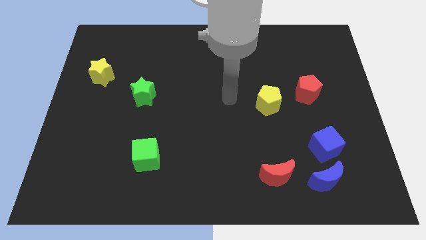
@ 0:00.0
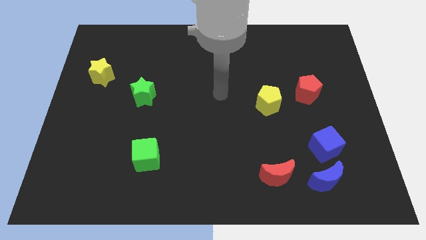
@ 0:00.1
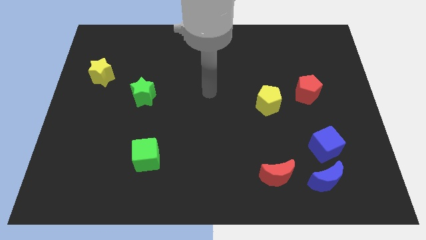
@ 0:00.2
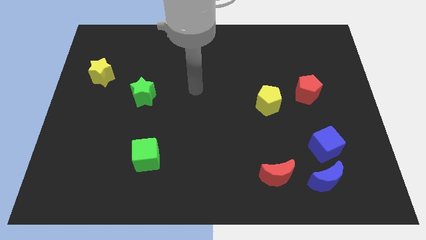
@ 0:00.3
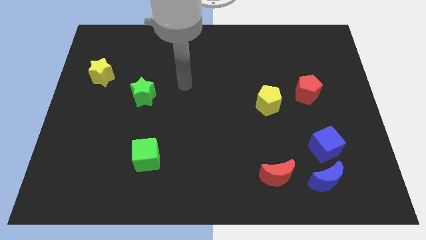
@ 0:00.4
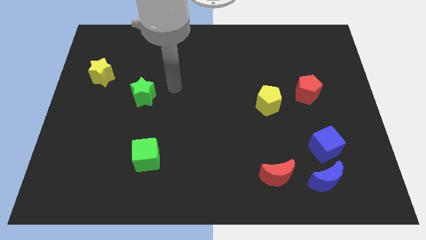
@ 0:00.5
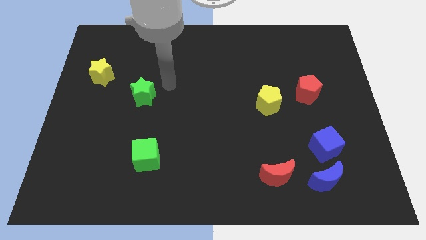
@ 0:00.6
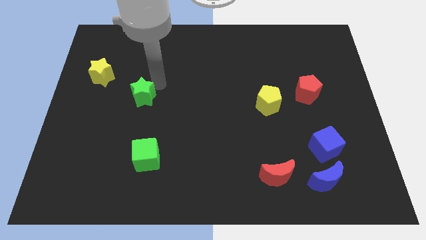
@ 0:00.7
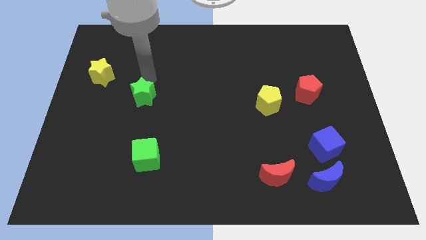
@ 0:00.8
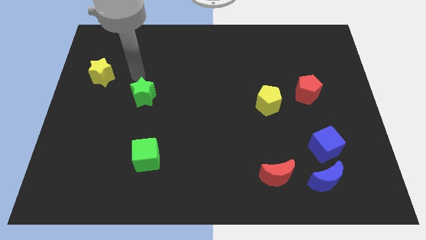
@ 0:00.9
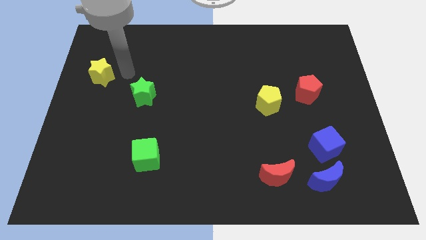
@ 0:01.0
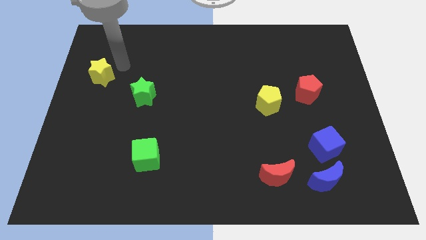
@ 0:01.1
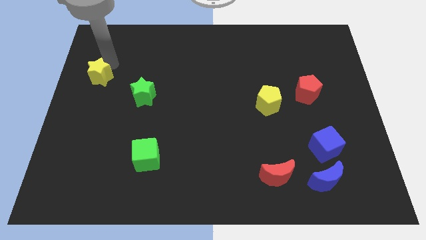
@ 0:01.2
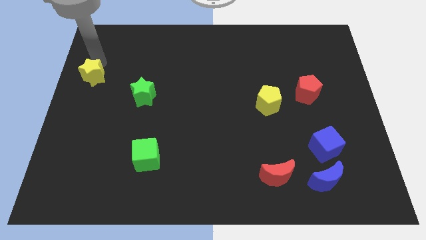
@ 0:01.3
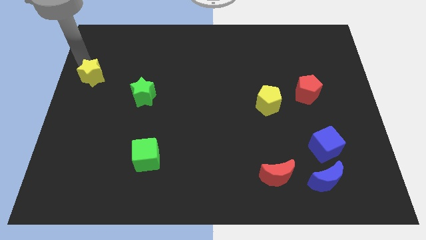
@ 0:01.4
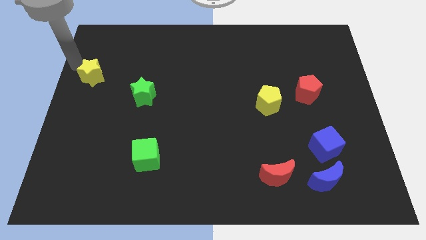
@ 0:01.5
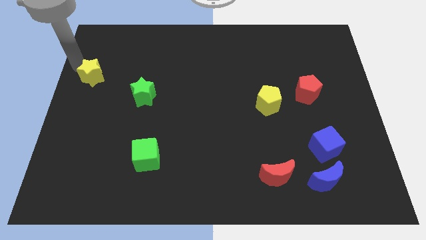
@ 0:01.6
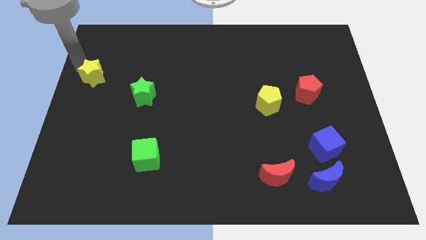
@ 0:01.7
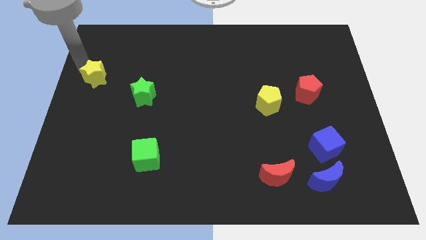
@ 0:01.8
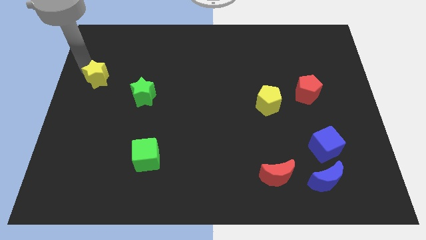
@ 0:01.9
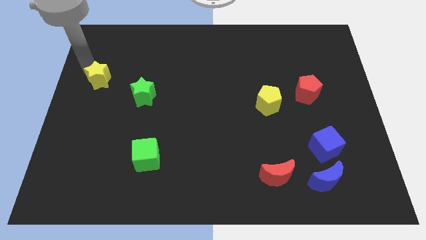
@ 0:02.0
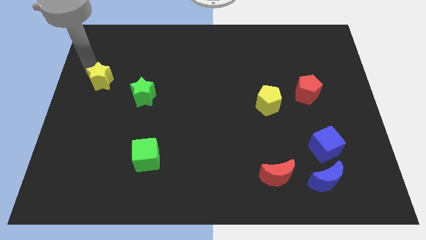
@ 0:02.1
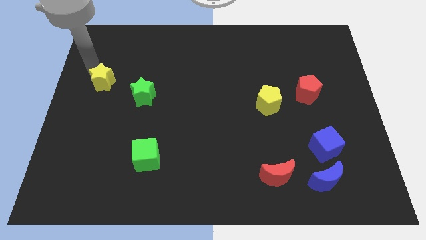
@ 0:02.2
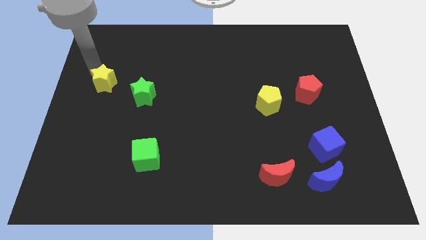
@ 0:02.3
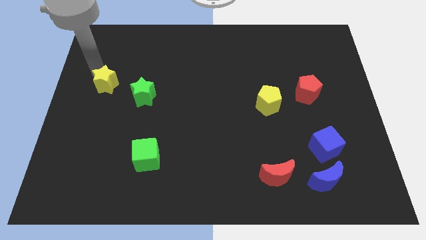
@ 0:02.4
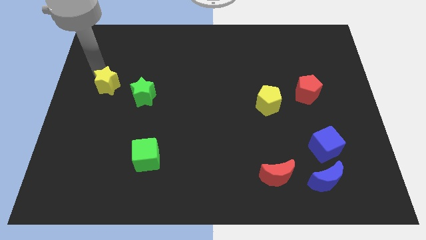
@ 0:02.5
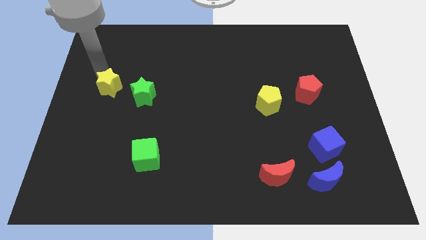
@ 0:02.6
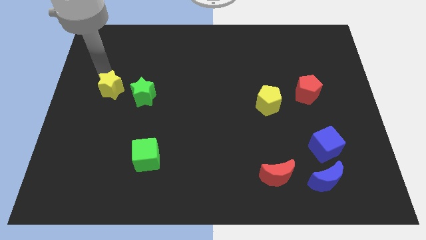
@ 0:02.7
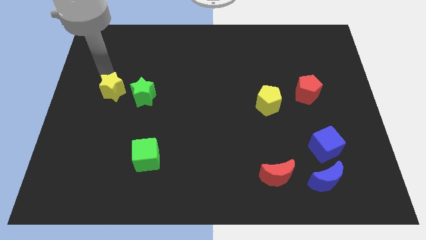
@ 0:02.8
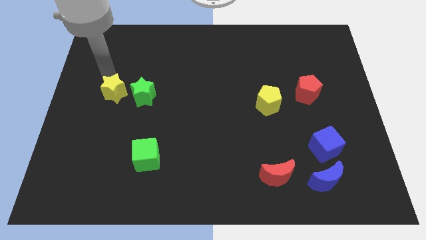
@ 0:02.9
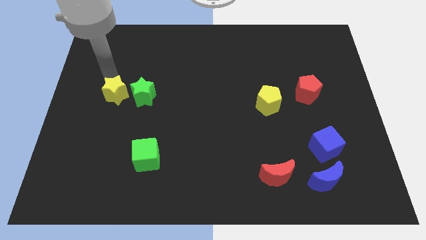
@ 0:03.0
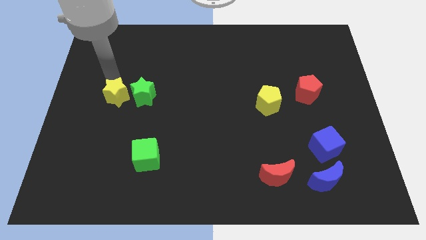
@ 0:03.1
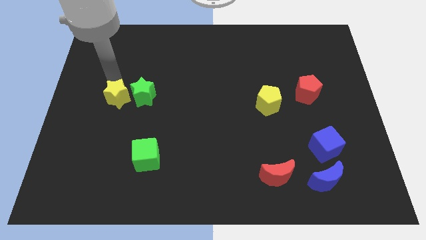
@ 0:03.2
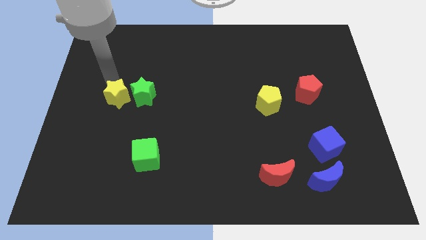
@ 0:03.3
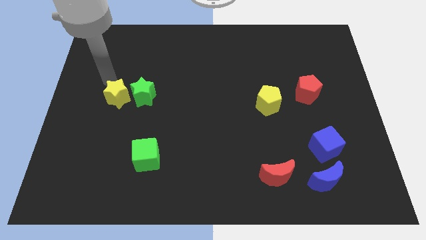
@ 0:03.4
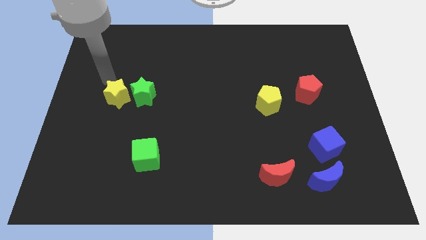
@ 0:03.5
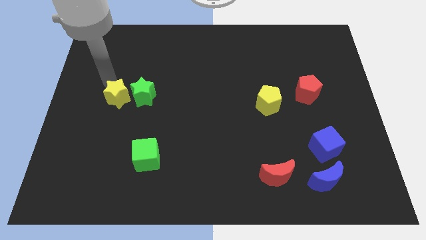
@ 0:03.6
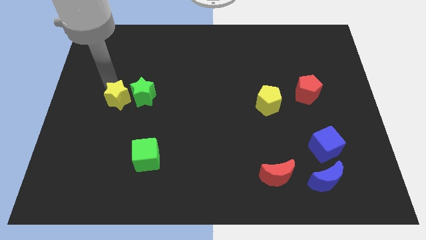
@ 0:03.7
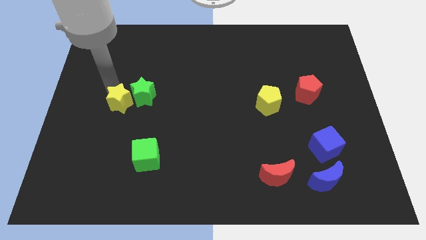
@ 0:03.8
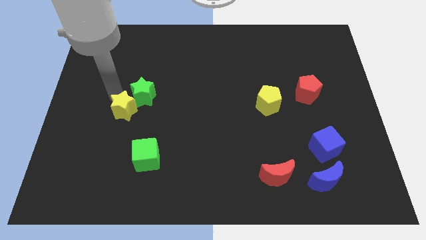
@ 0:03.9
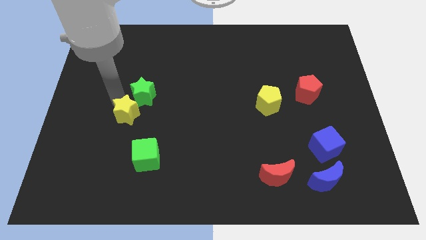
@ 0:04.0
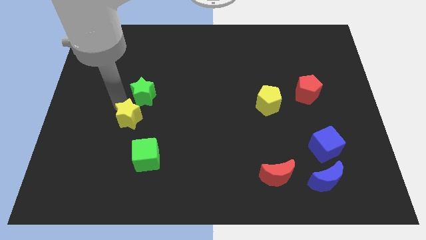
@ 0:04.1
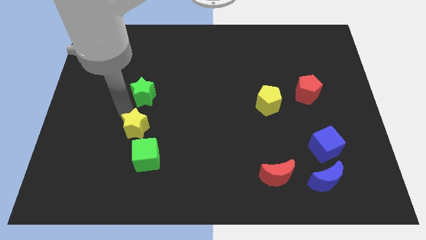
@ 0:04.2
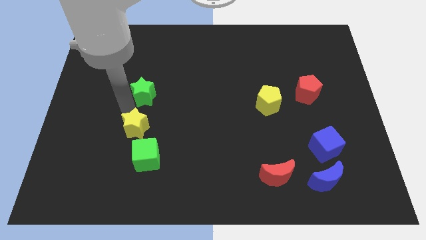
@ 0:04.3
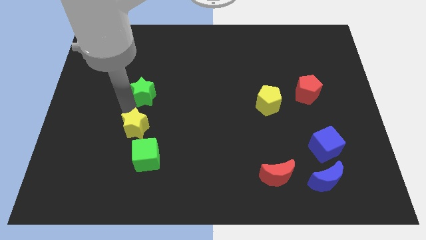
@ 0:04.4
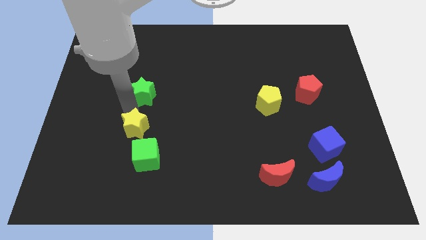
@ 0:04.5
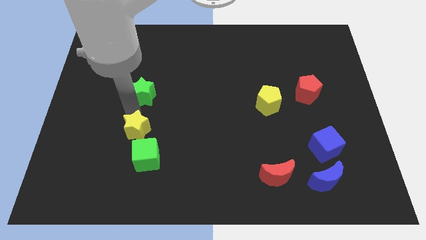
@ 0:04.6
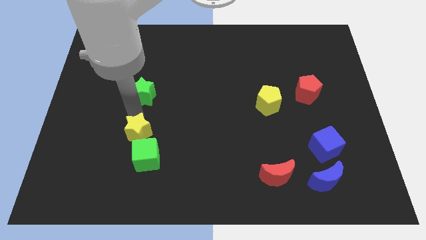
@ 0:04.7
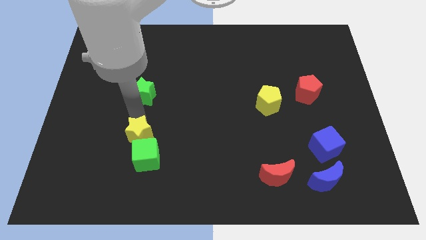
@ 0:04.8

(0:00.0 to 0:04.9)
put the yellow star towards the green cube

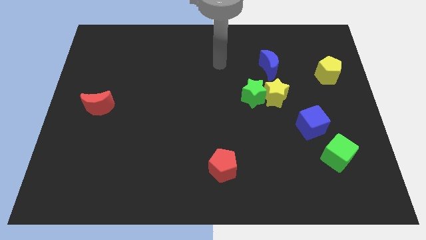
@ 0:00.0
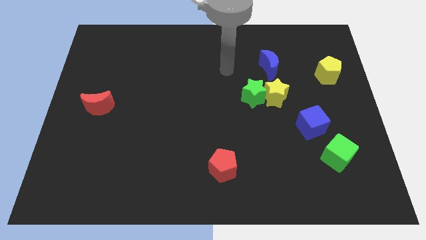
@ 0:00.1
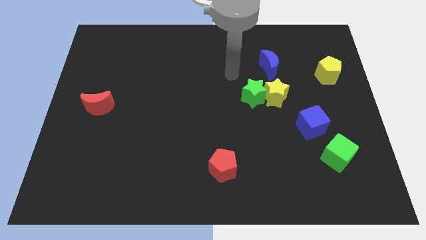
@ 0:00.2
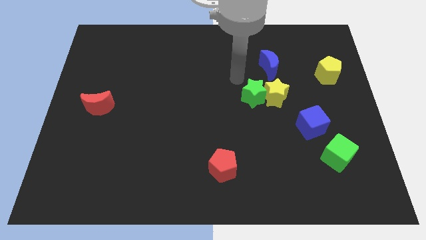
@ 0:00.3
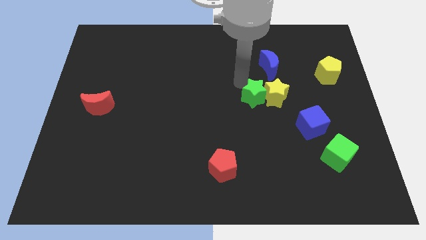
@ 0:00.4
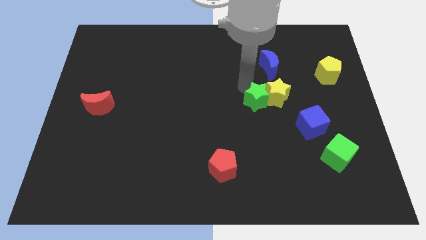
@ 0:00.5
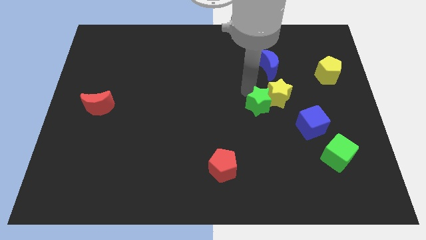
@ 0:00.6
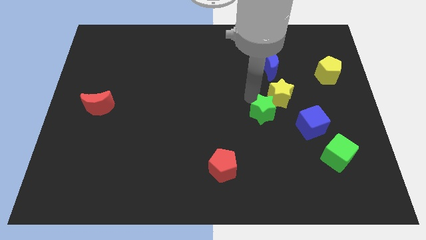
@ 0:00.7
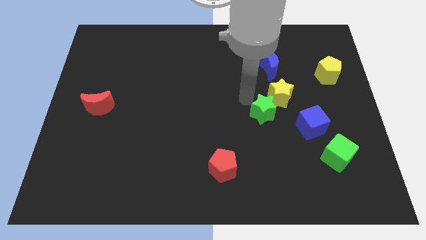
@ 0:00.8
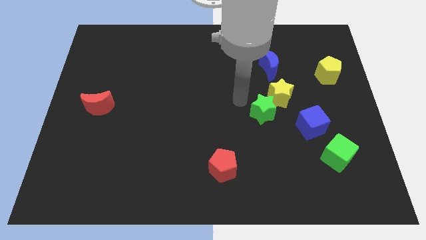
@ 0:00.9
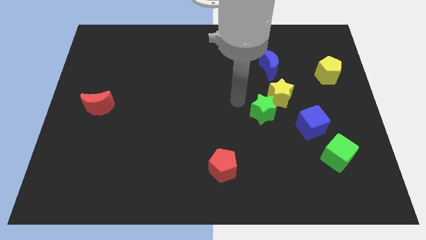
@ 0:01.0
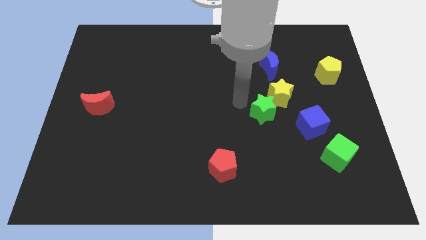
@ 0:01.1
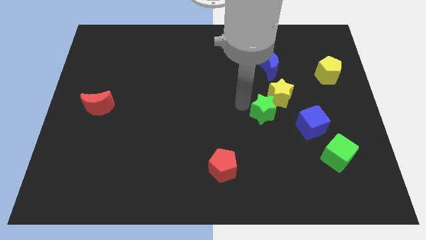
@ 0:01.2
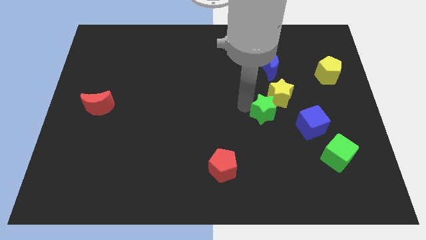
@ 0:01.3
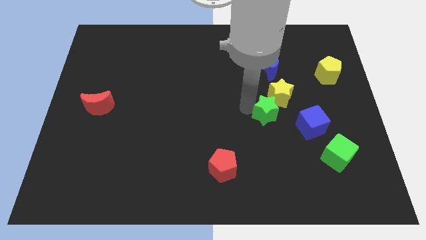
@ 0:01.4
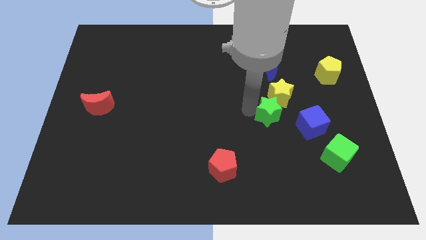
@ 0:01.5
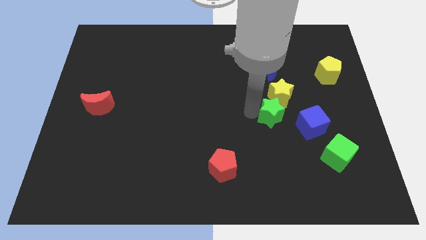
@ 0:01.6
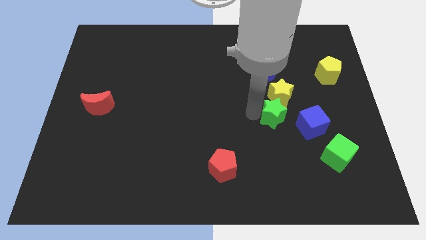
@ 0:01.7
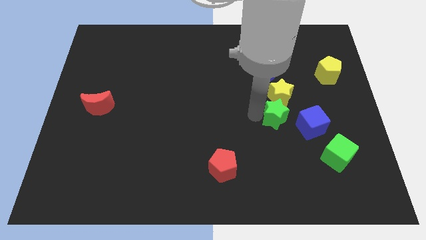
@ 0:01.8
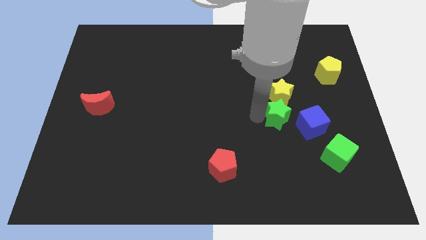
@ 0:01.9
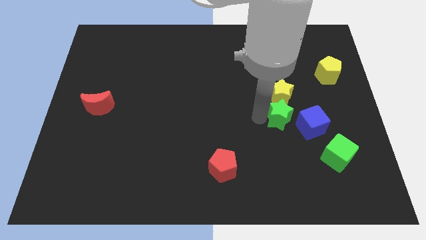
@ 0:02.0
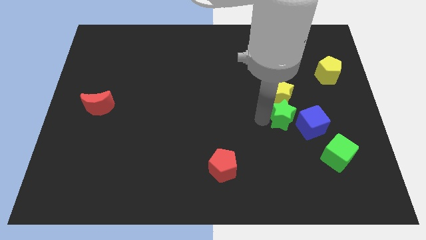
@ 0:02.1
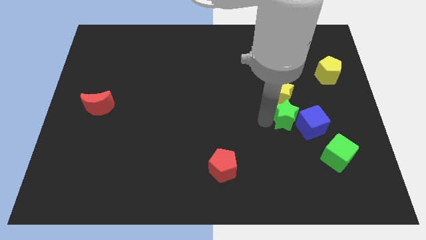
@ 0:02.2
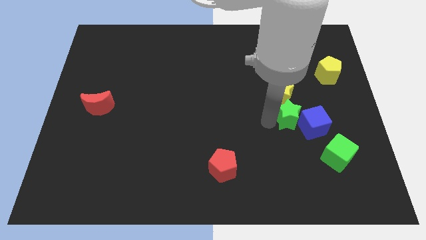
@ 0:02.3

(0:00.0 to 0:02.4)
slide the green star close to the blue cube
